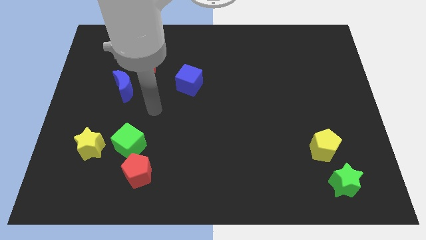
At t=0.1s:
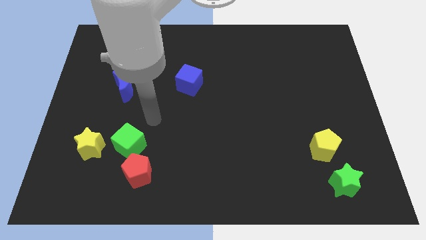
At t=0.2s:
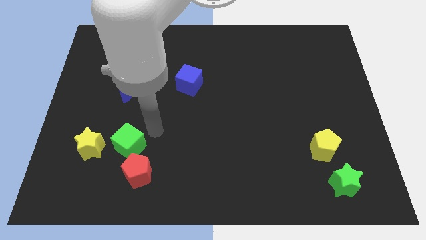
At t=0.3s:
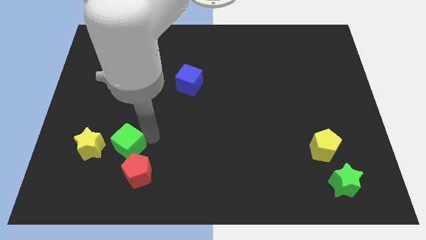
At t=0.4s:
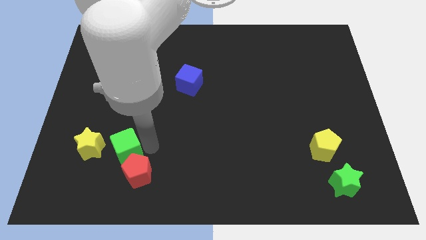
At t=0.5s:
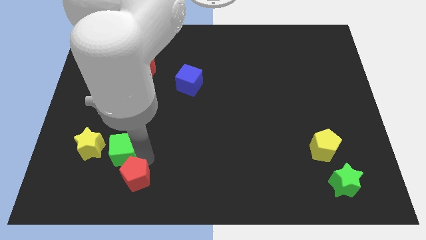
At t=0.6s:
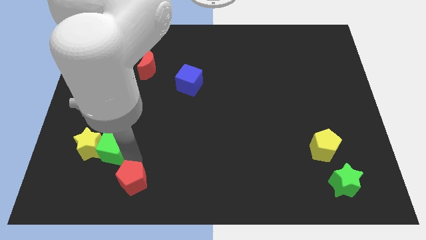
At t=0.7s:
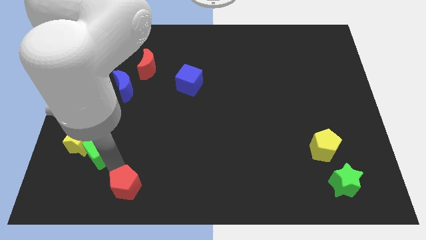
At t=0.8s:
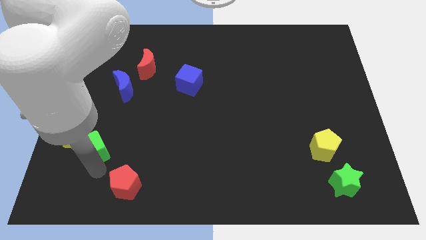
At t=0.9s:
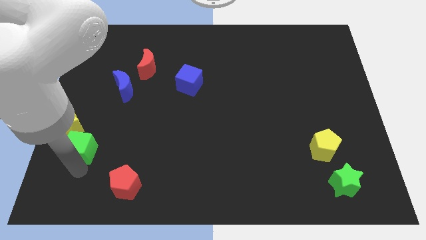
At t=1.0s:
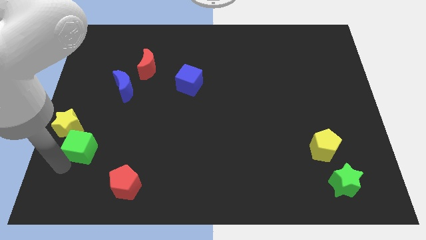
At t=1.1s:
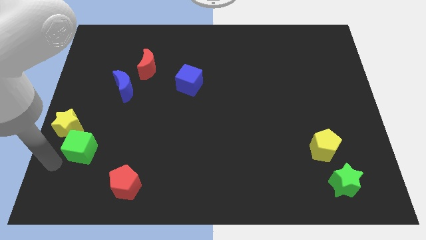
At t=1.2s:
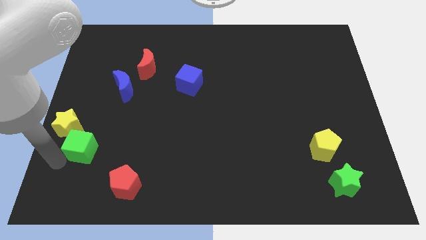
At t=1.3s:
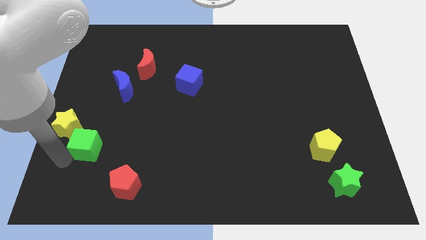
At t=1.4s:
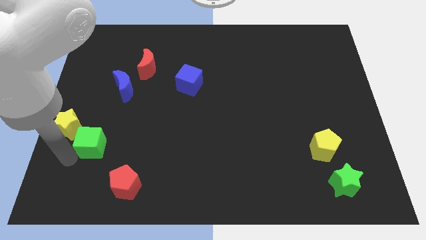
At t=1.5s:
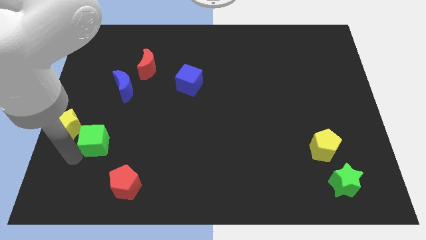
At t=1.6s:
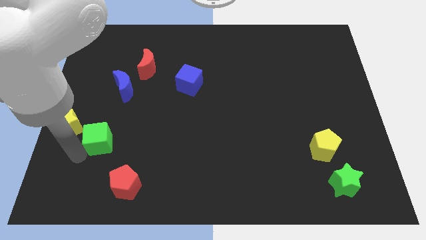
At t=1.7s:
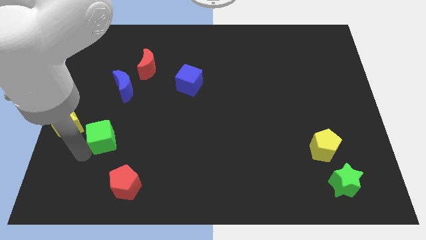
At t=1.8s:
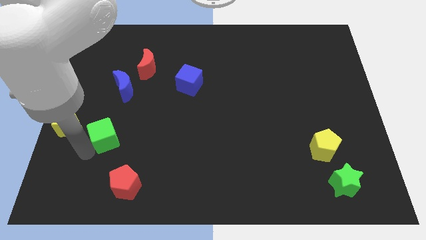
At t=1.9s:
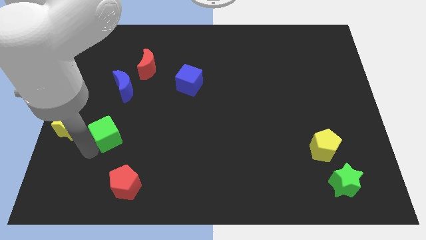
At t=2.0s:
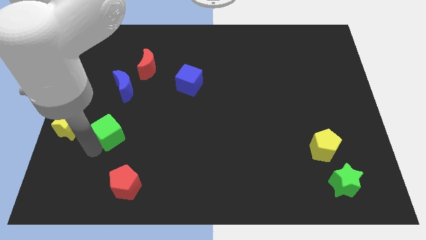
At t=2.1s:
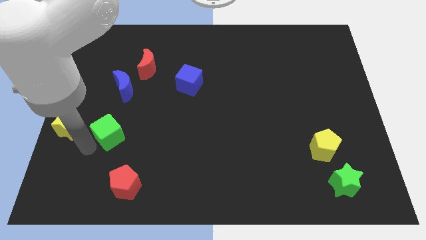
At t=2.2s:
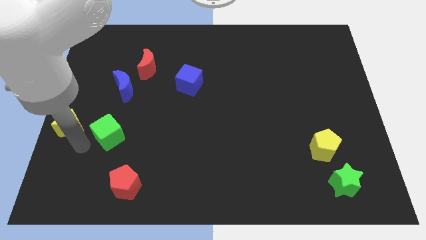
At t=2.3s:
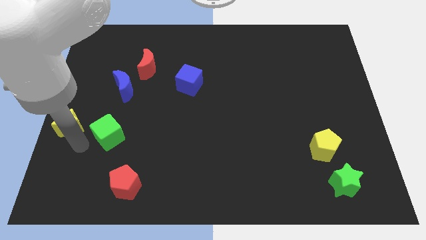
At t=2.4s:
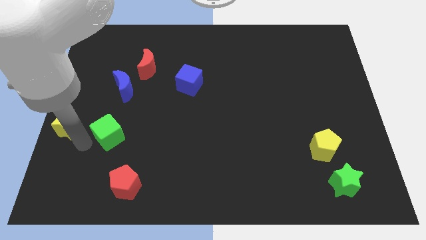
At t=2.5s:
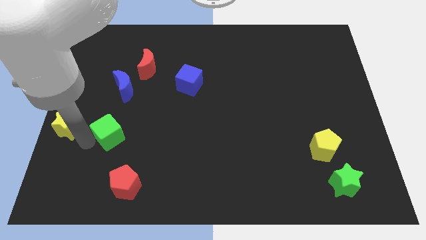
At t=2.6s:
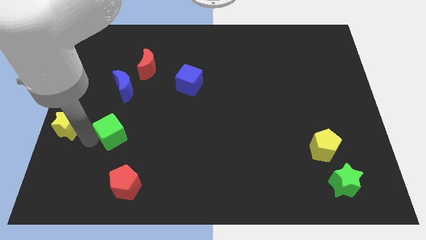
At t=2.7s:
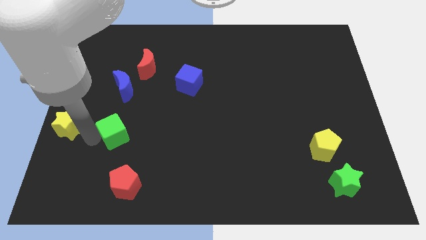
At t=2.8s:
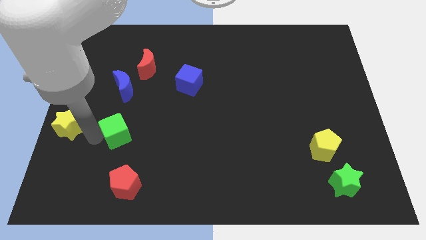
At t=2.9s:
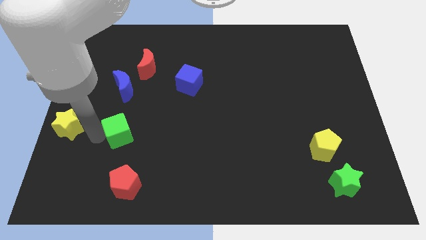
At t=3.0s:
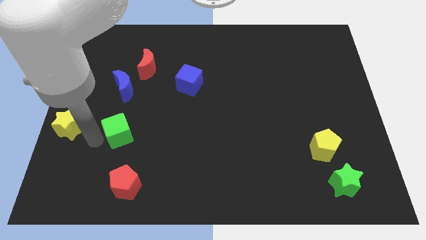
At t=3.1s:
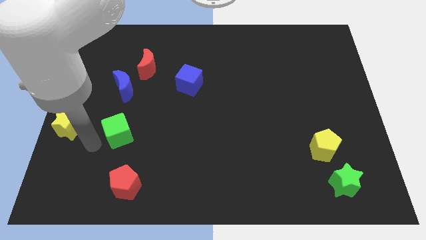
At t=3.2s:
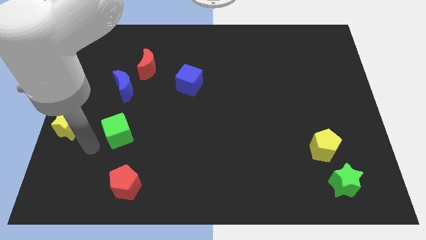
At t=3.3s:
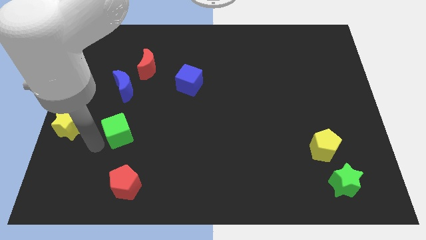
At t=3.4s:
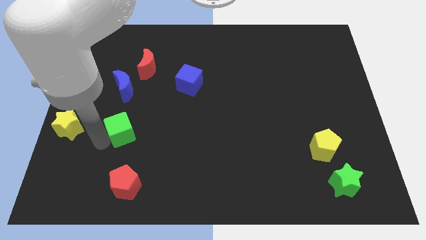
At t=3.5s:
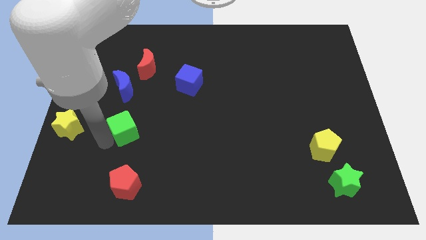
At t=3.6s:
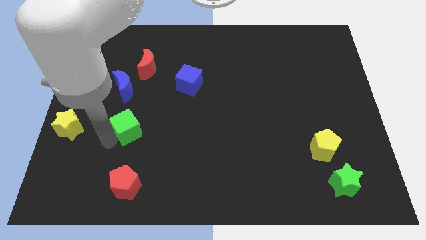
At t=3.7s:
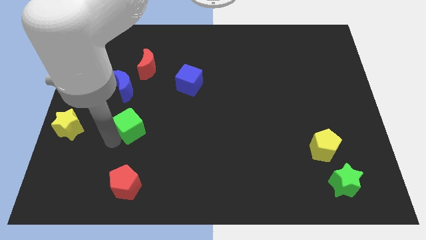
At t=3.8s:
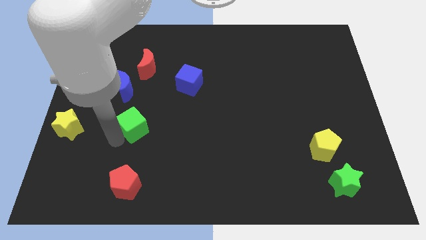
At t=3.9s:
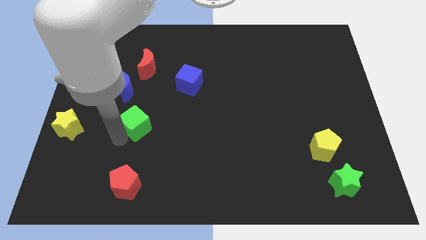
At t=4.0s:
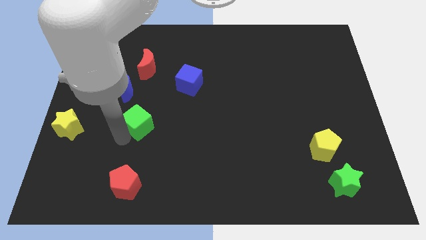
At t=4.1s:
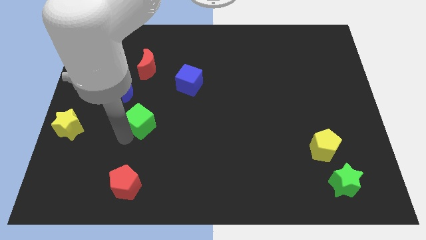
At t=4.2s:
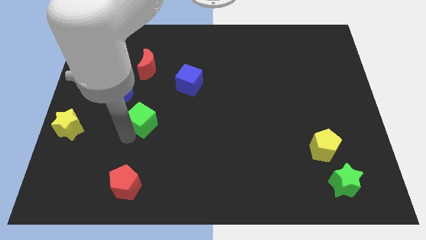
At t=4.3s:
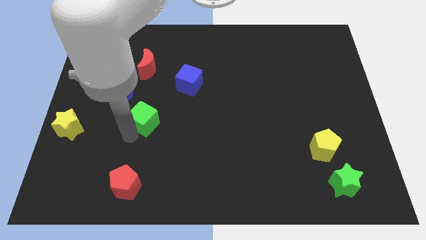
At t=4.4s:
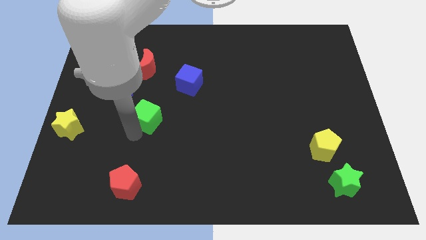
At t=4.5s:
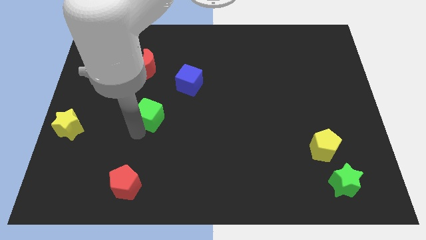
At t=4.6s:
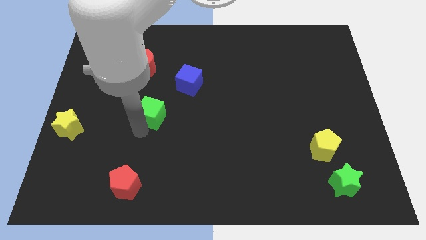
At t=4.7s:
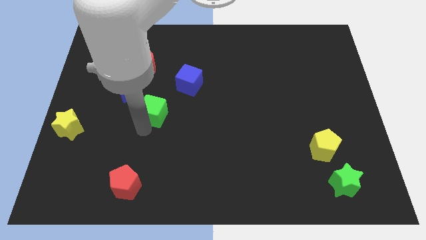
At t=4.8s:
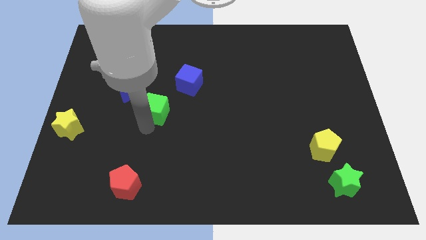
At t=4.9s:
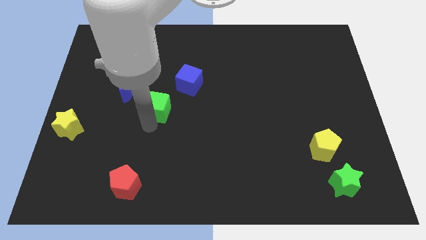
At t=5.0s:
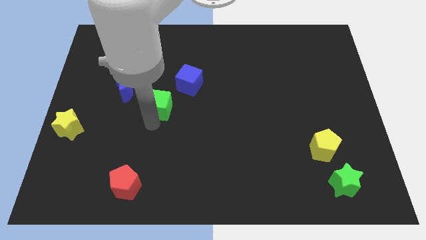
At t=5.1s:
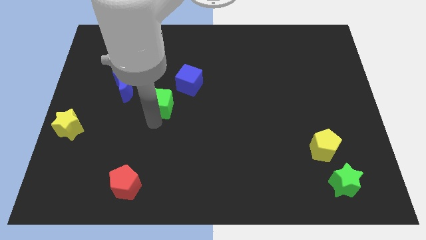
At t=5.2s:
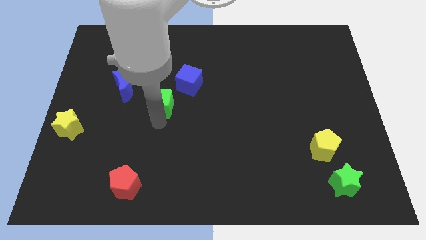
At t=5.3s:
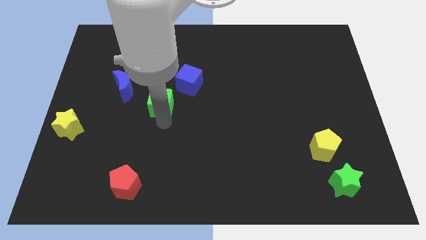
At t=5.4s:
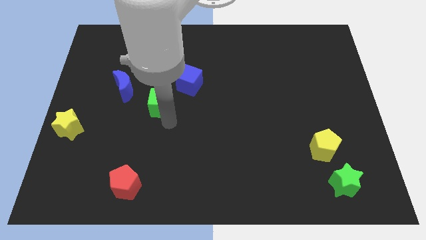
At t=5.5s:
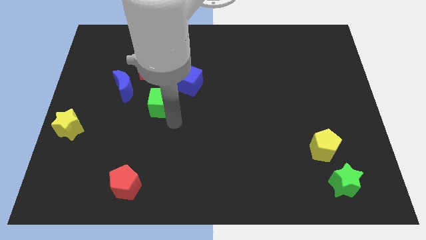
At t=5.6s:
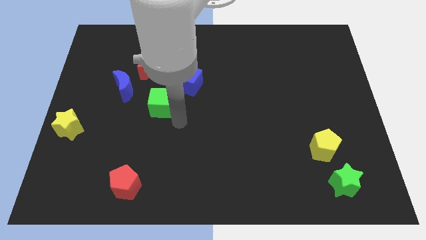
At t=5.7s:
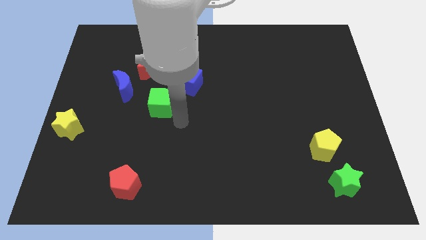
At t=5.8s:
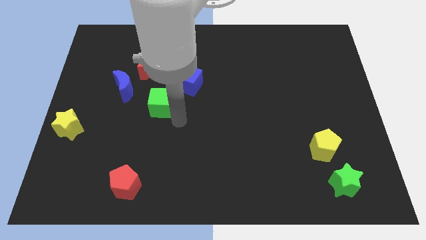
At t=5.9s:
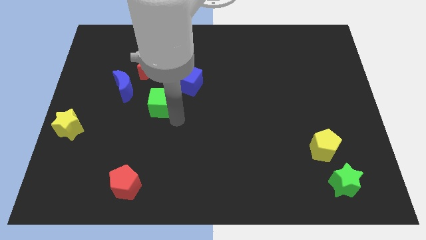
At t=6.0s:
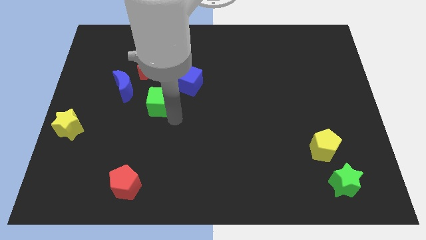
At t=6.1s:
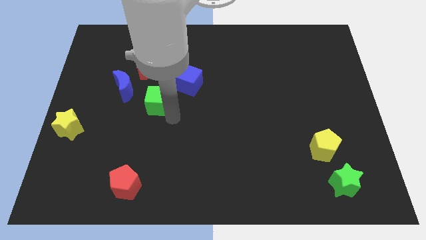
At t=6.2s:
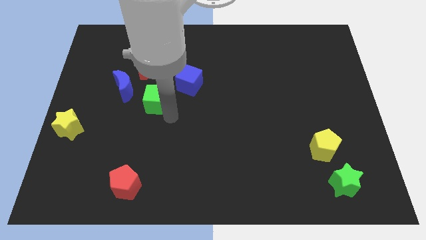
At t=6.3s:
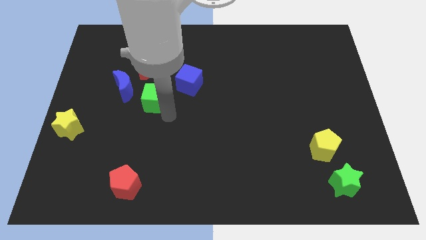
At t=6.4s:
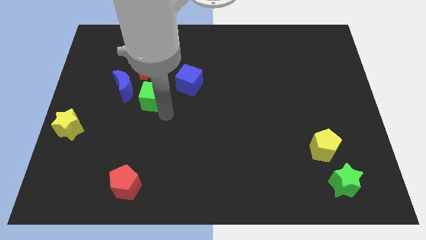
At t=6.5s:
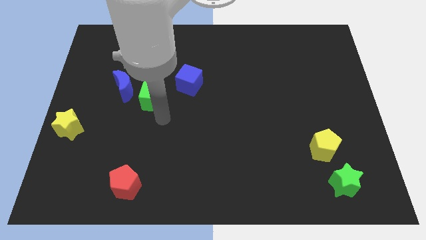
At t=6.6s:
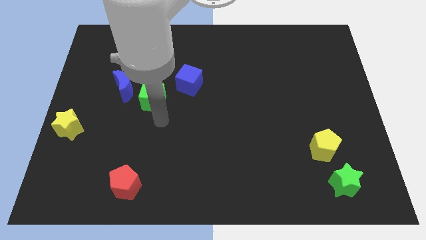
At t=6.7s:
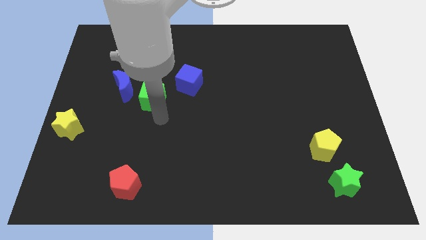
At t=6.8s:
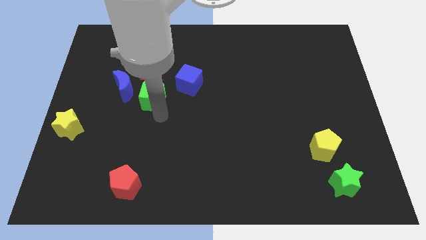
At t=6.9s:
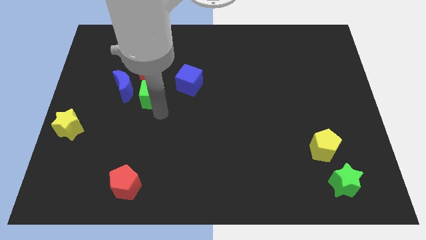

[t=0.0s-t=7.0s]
push the green cube left of the blue cube
